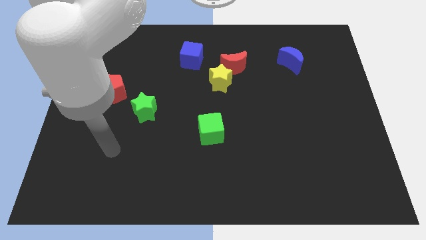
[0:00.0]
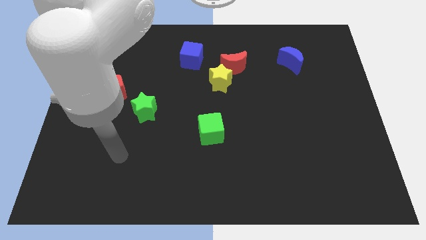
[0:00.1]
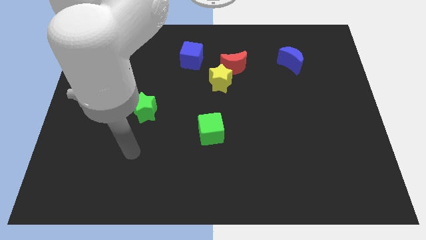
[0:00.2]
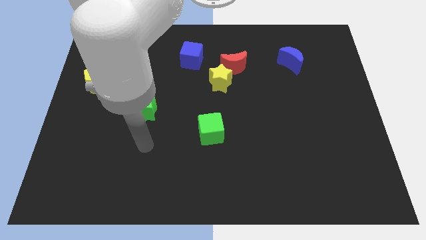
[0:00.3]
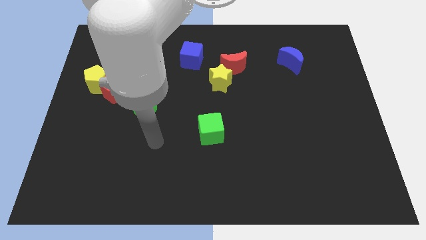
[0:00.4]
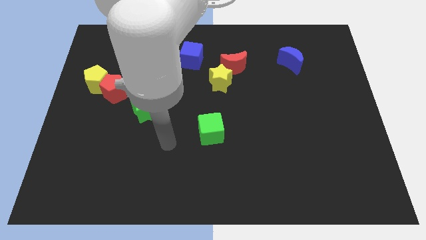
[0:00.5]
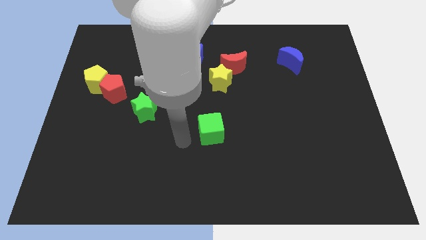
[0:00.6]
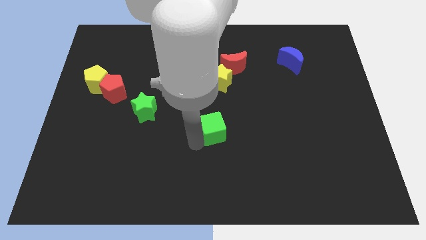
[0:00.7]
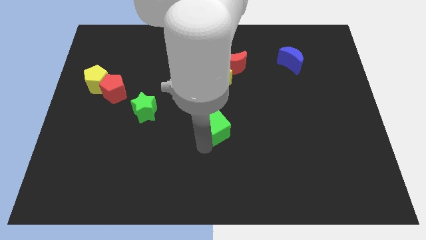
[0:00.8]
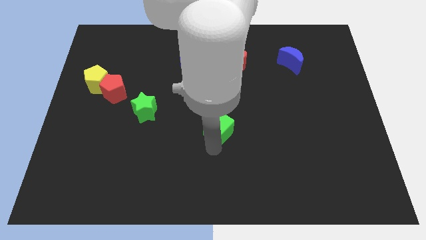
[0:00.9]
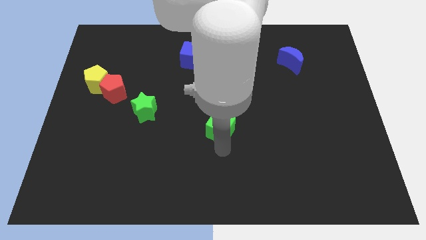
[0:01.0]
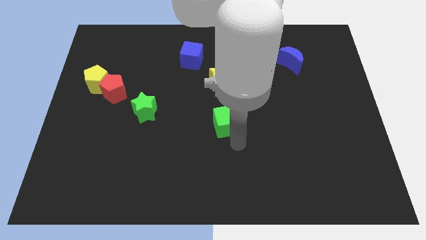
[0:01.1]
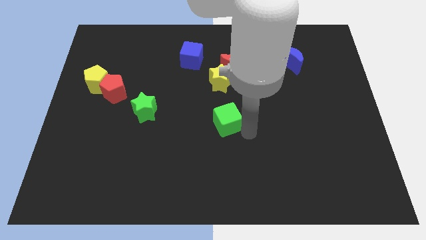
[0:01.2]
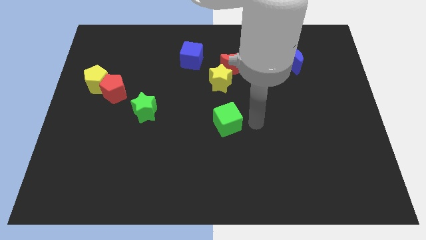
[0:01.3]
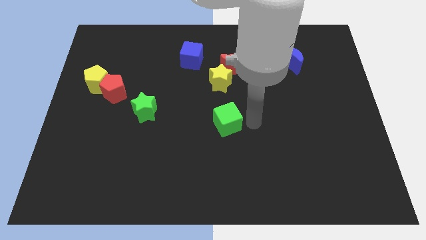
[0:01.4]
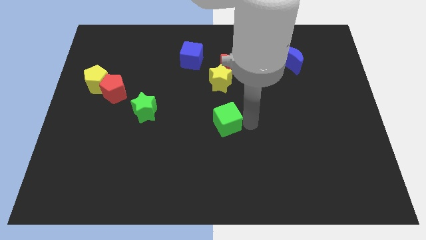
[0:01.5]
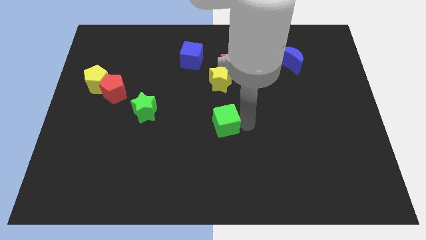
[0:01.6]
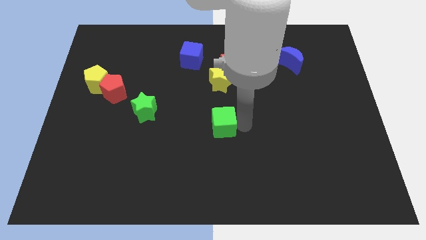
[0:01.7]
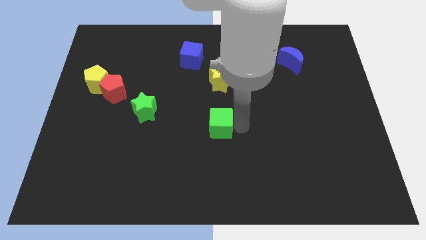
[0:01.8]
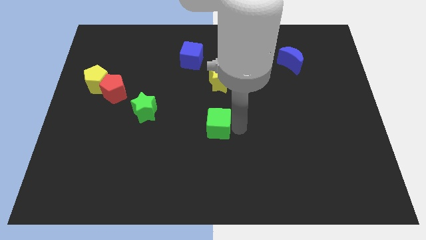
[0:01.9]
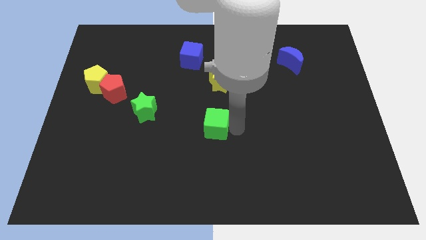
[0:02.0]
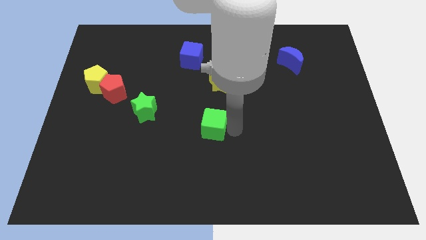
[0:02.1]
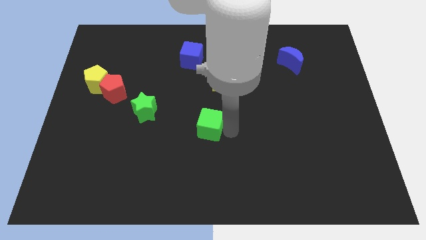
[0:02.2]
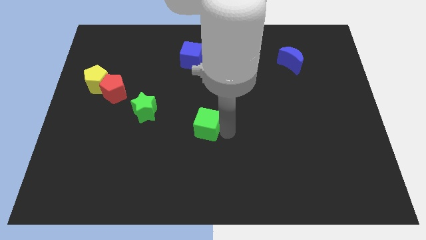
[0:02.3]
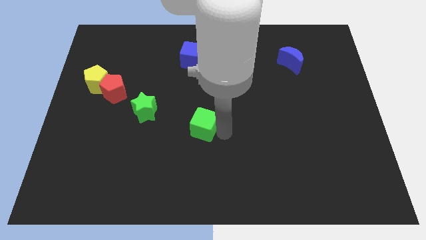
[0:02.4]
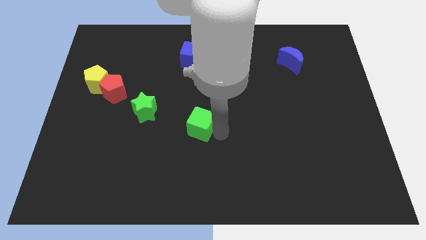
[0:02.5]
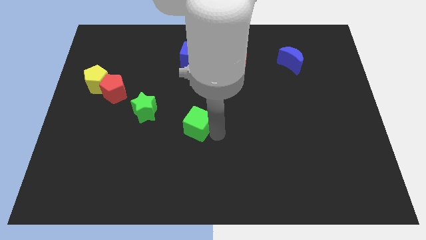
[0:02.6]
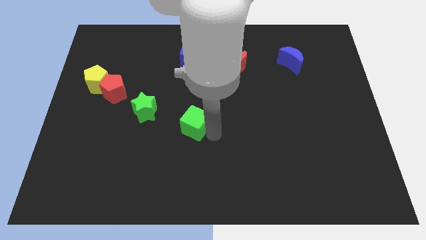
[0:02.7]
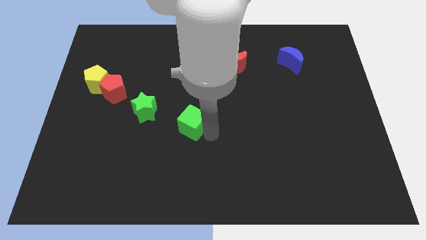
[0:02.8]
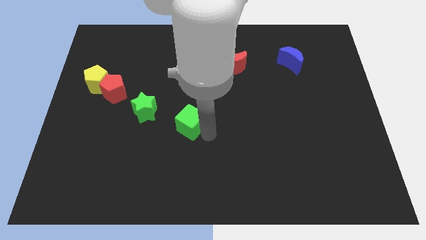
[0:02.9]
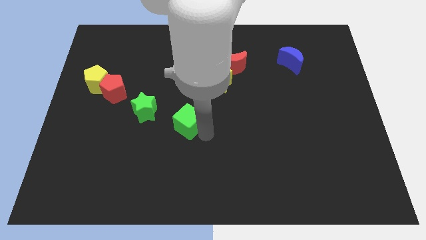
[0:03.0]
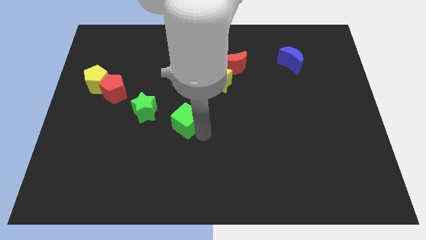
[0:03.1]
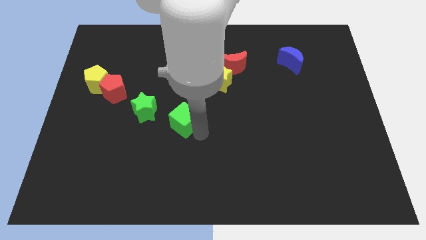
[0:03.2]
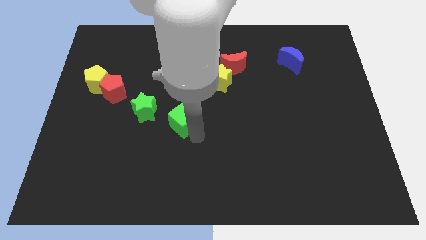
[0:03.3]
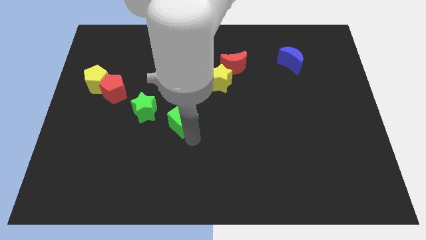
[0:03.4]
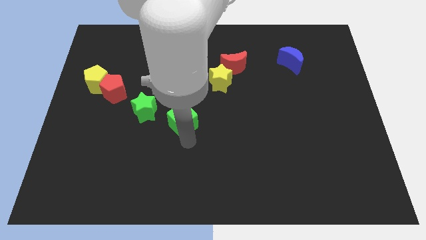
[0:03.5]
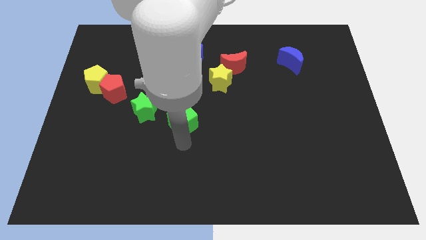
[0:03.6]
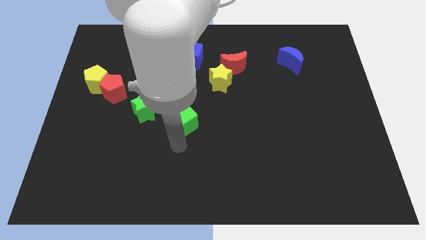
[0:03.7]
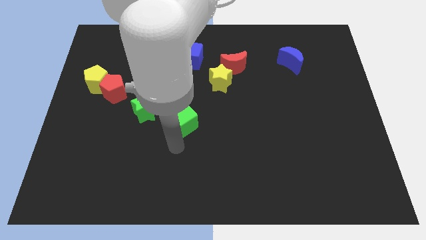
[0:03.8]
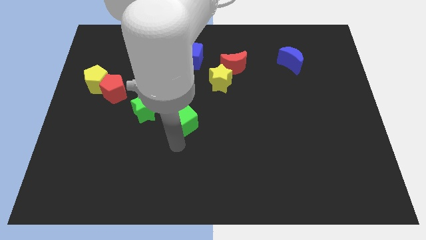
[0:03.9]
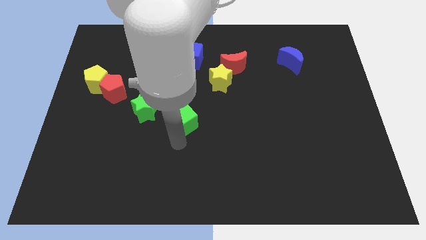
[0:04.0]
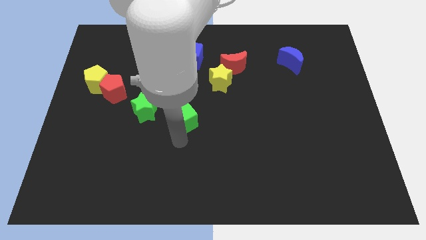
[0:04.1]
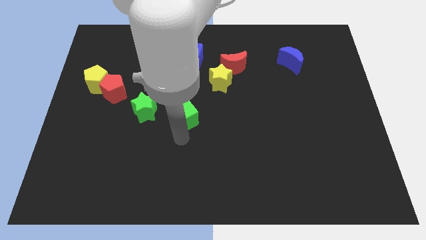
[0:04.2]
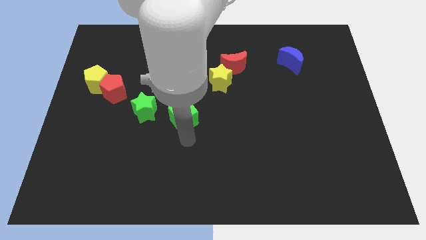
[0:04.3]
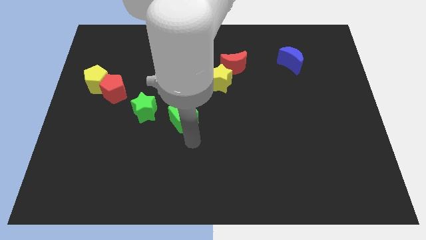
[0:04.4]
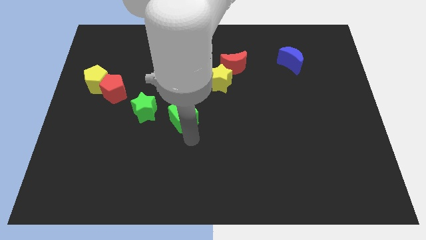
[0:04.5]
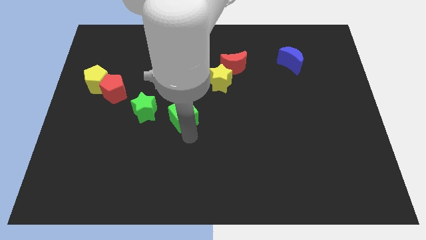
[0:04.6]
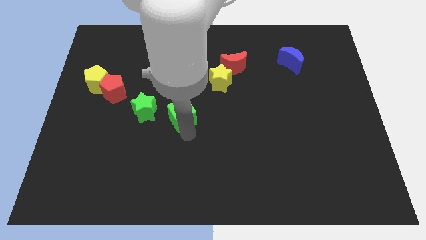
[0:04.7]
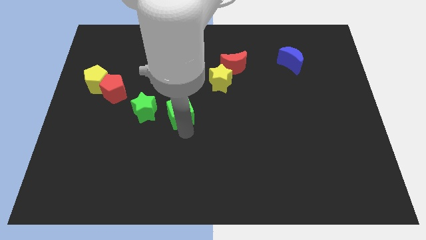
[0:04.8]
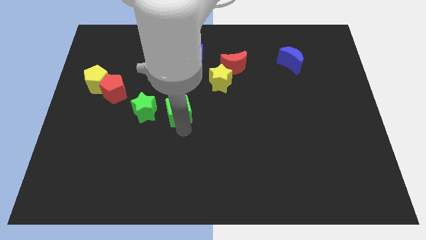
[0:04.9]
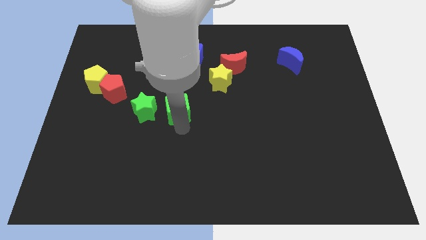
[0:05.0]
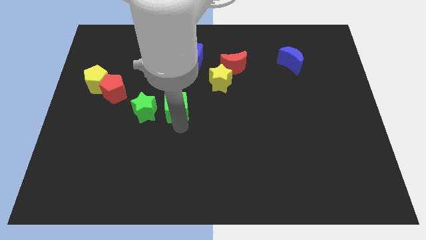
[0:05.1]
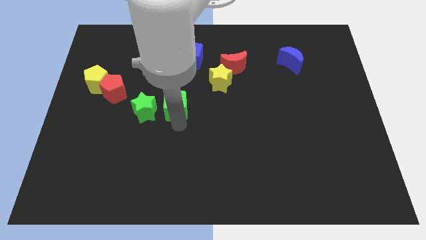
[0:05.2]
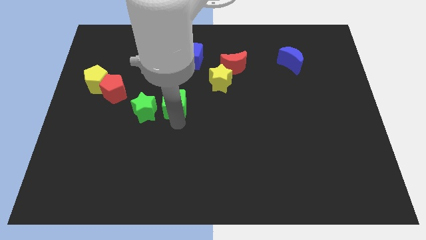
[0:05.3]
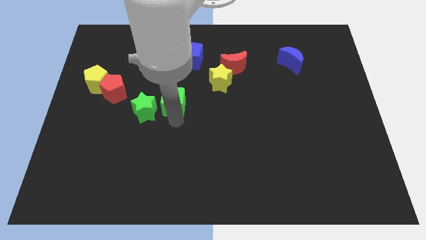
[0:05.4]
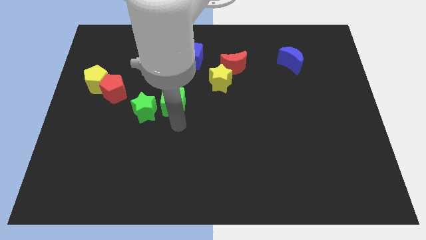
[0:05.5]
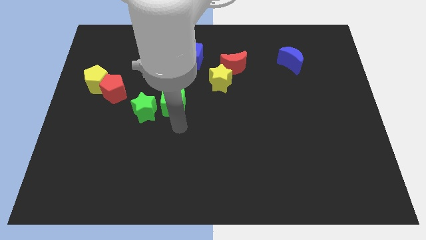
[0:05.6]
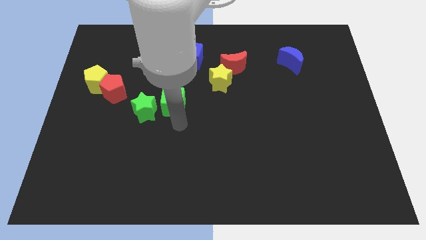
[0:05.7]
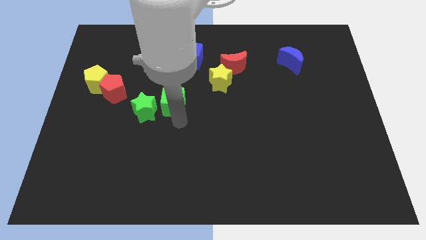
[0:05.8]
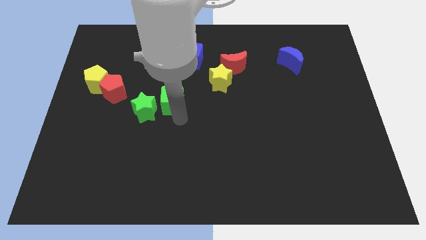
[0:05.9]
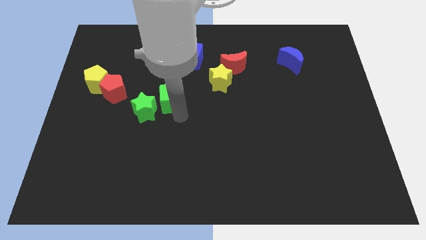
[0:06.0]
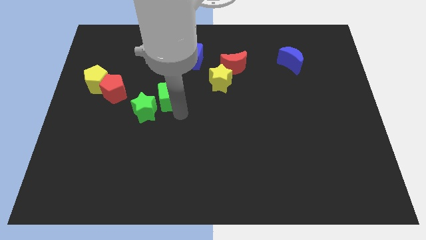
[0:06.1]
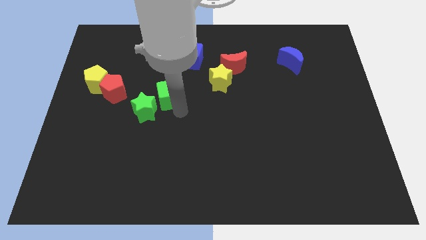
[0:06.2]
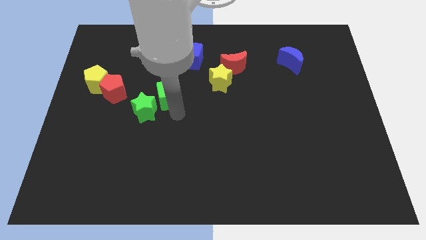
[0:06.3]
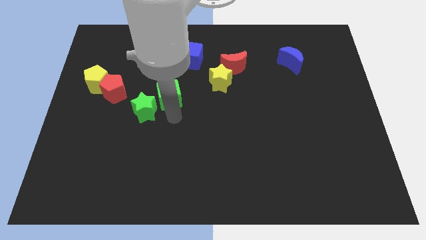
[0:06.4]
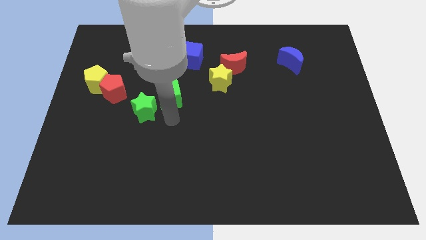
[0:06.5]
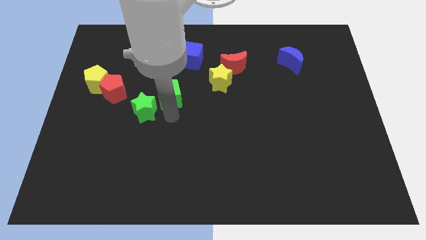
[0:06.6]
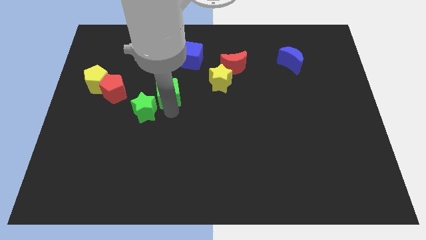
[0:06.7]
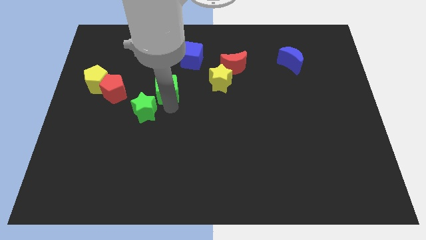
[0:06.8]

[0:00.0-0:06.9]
put the green cube above the green star
